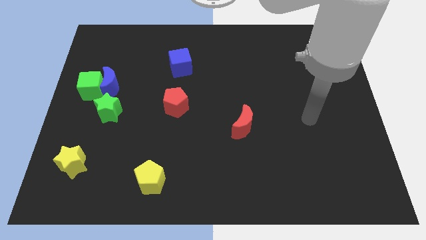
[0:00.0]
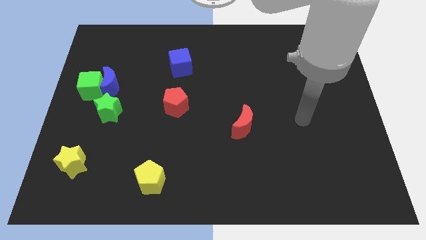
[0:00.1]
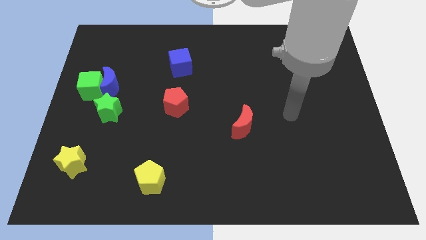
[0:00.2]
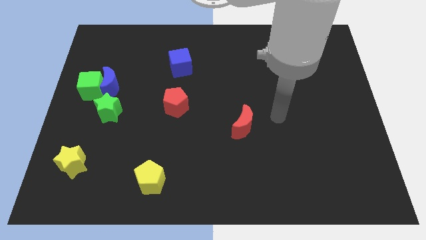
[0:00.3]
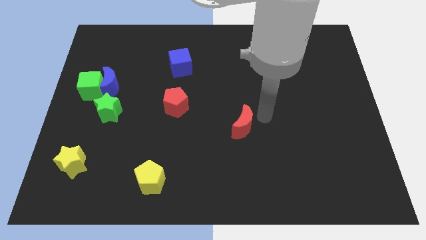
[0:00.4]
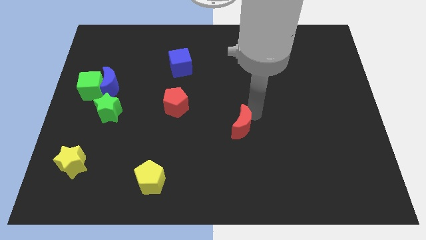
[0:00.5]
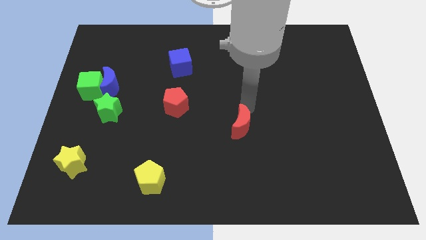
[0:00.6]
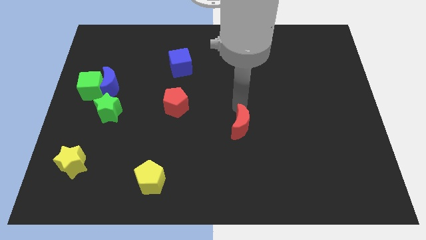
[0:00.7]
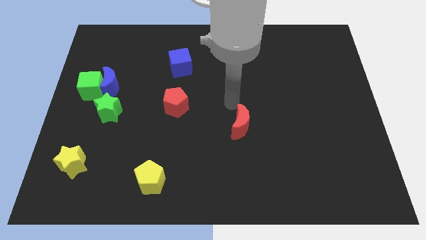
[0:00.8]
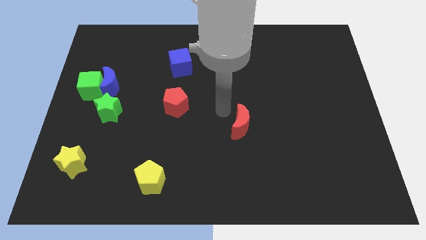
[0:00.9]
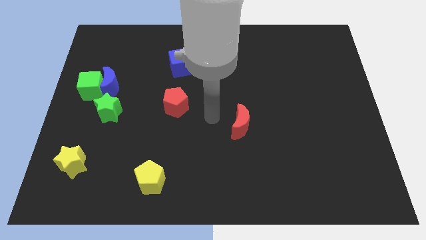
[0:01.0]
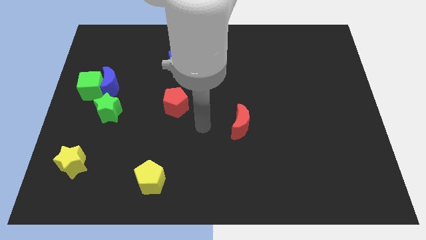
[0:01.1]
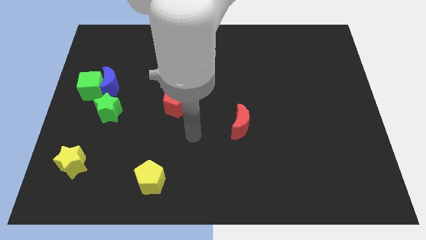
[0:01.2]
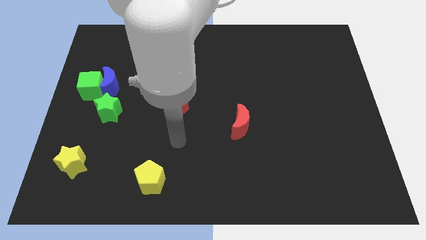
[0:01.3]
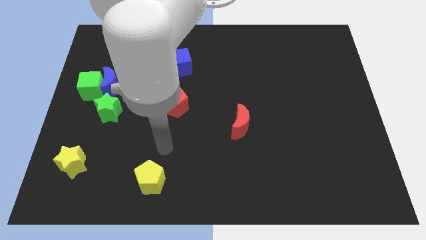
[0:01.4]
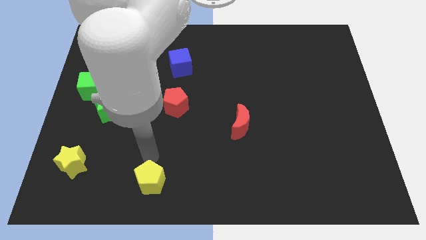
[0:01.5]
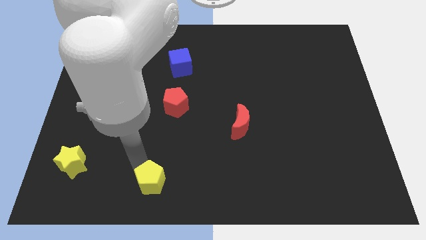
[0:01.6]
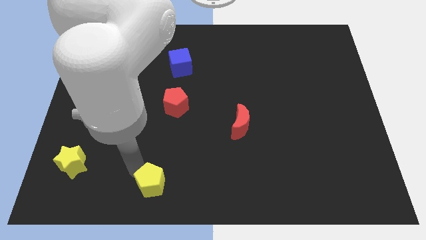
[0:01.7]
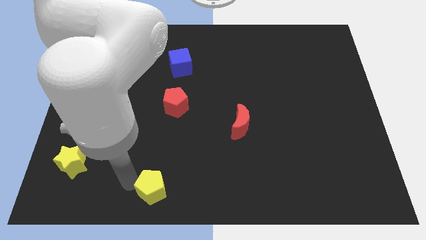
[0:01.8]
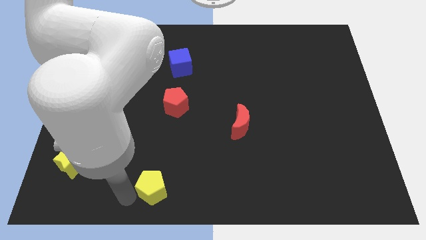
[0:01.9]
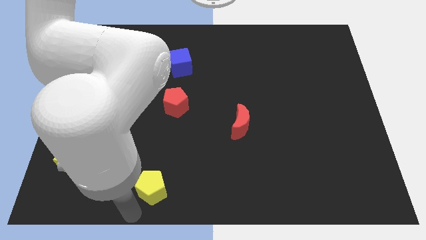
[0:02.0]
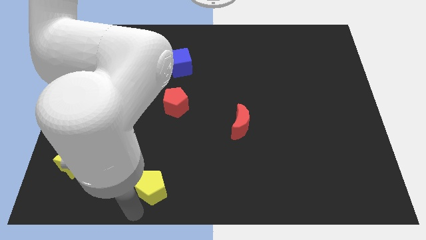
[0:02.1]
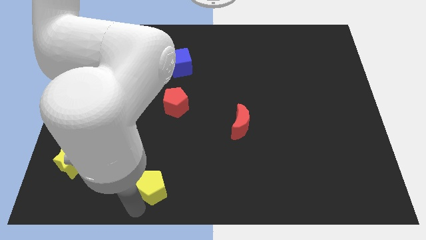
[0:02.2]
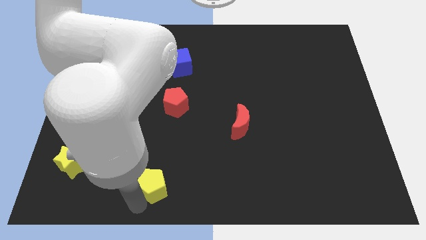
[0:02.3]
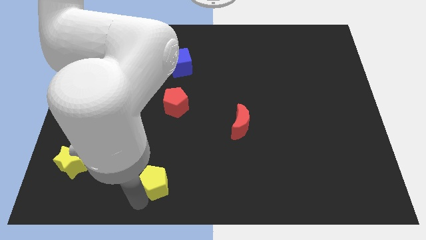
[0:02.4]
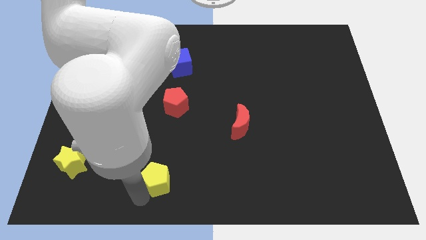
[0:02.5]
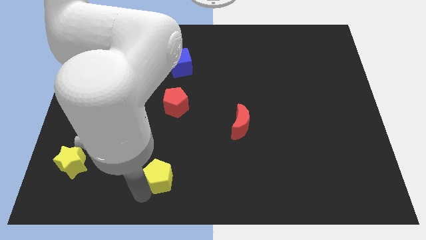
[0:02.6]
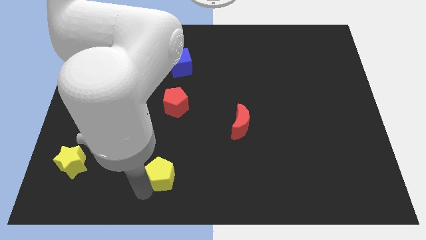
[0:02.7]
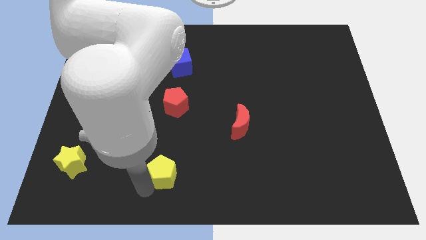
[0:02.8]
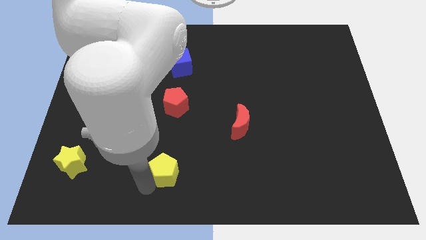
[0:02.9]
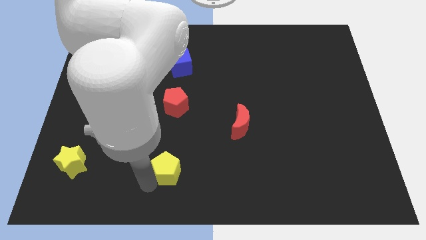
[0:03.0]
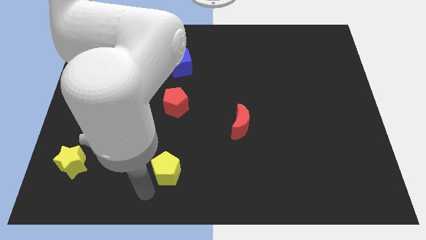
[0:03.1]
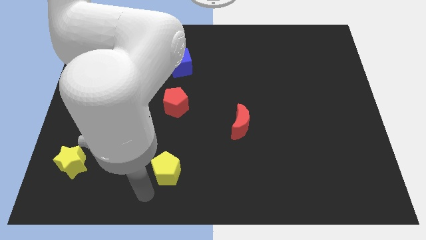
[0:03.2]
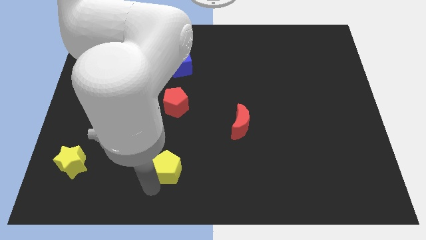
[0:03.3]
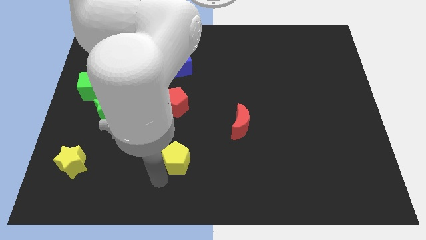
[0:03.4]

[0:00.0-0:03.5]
move the yellow pentagon diagonally up and right a little bit

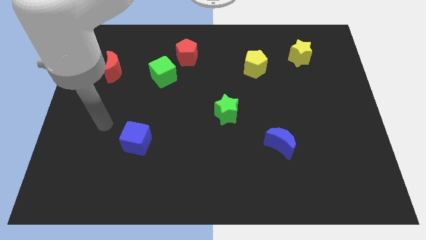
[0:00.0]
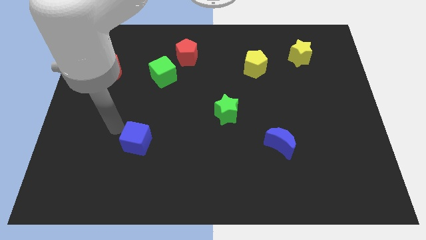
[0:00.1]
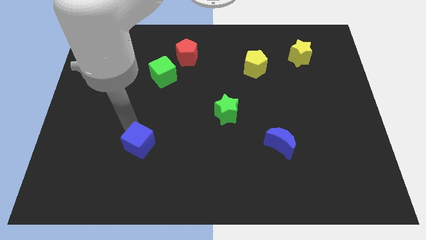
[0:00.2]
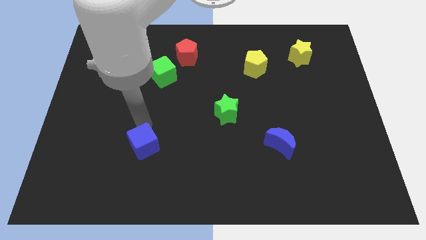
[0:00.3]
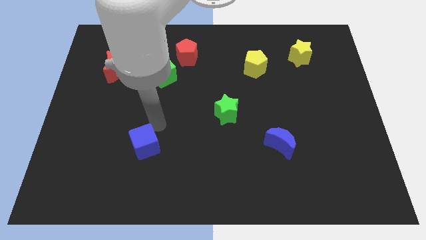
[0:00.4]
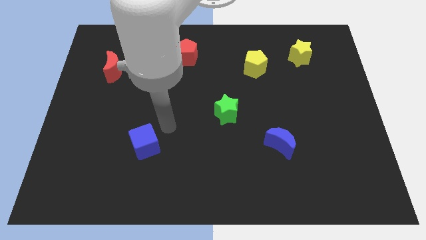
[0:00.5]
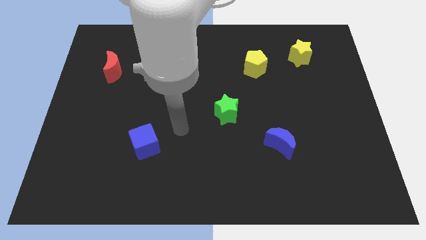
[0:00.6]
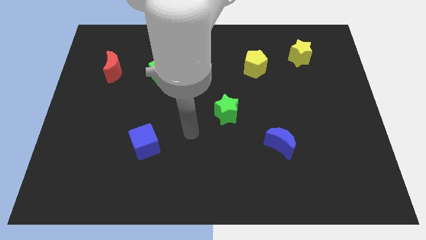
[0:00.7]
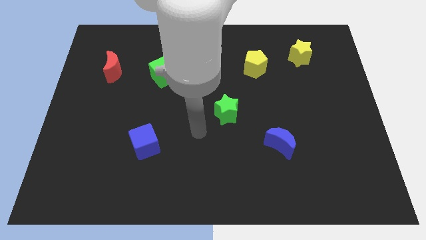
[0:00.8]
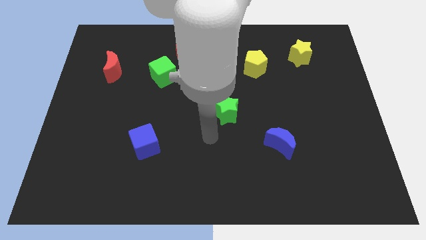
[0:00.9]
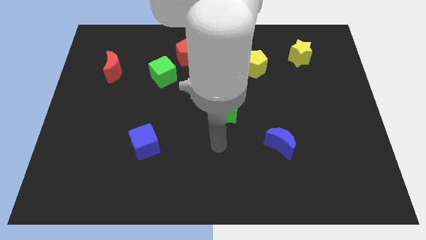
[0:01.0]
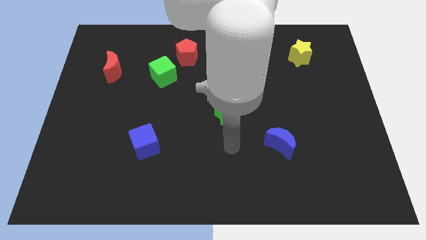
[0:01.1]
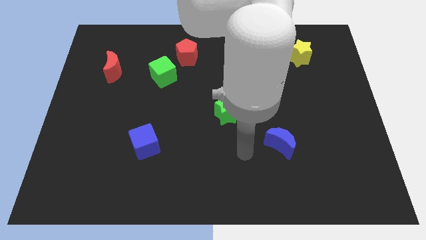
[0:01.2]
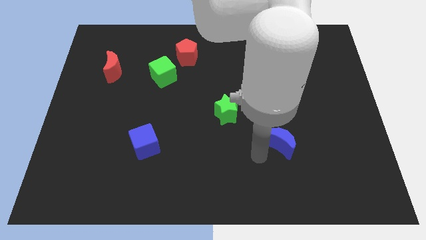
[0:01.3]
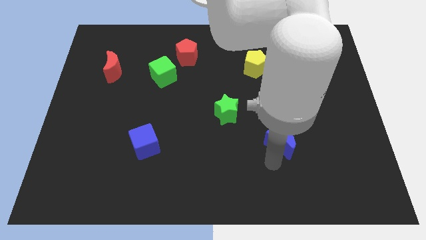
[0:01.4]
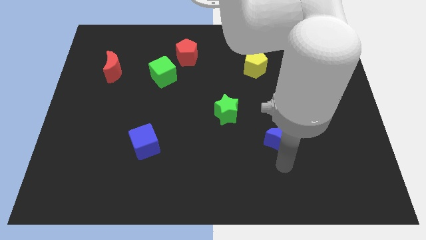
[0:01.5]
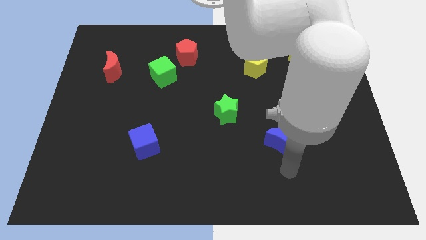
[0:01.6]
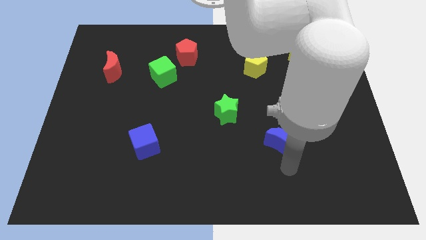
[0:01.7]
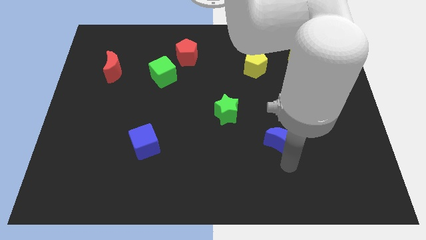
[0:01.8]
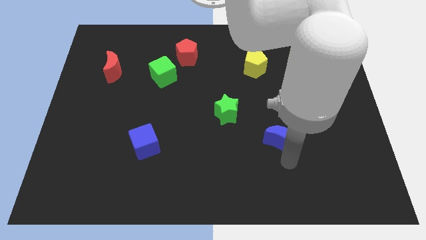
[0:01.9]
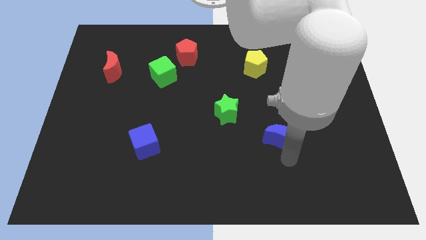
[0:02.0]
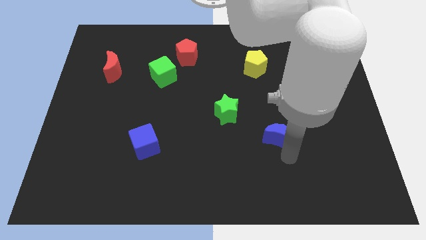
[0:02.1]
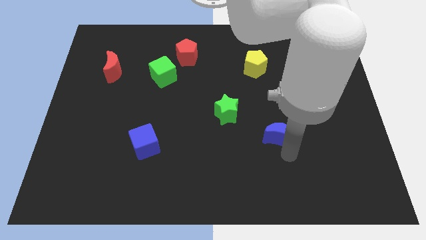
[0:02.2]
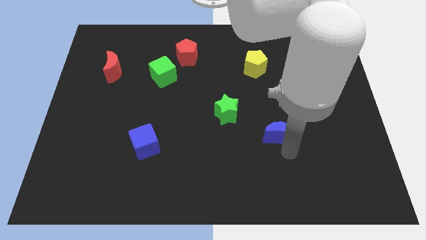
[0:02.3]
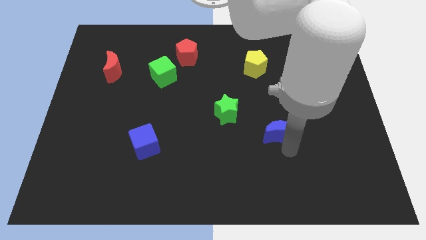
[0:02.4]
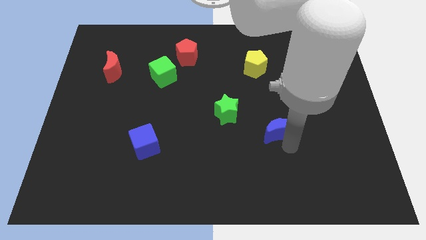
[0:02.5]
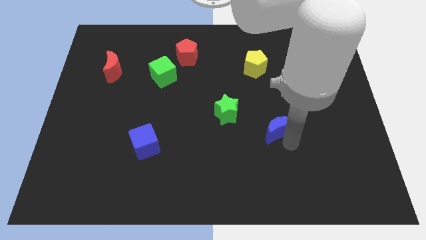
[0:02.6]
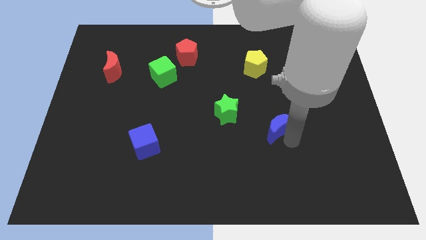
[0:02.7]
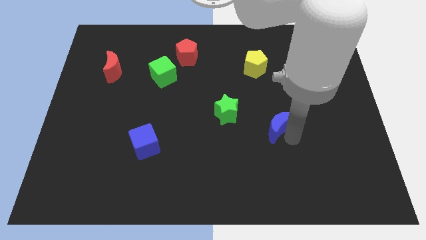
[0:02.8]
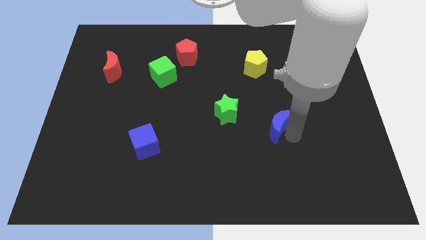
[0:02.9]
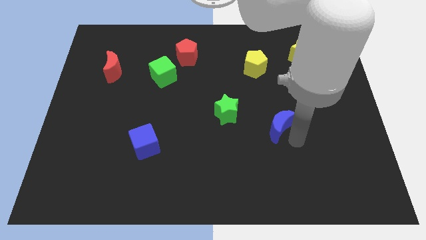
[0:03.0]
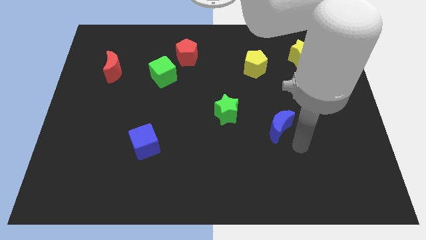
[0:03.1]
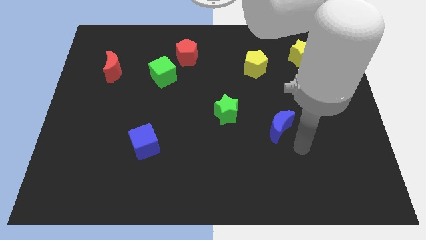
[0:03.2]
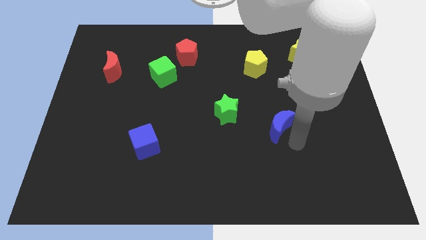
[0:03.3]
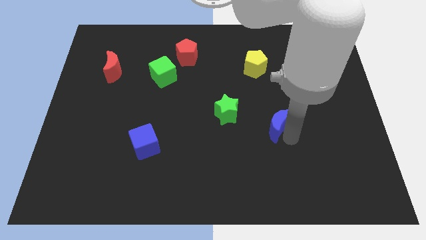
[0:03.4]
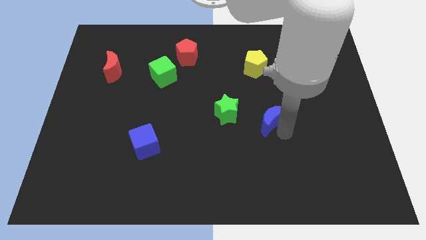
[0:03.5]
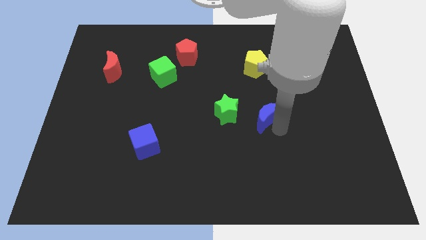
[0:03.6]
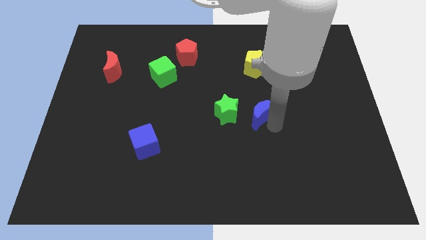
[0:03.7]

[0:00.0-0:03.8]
slide the blue moon slightly upwards and left diagonally

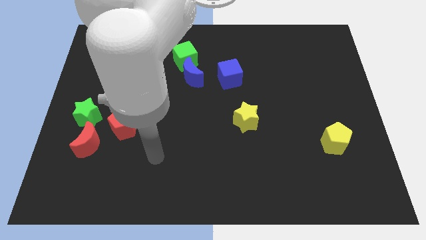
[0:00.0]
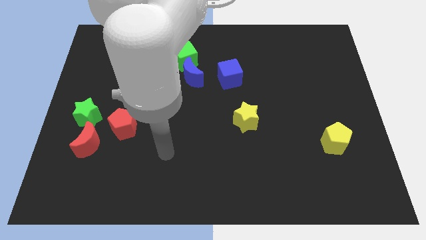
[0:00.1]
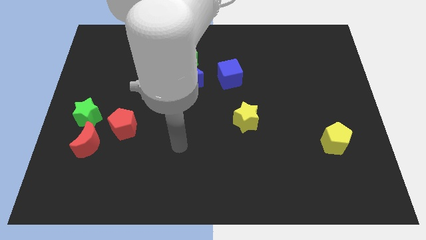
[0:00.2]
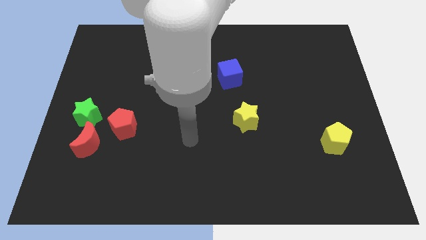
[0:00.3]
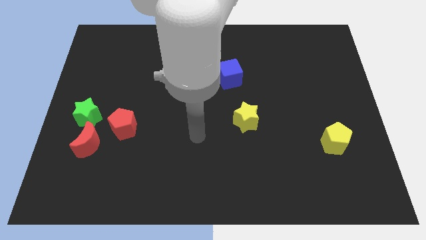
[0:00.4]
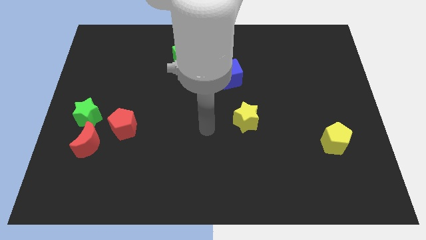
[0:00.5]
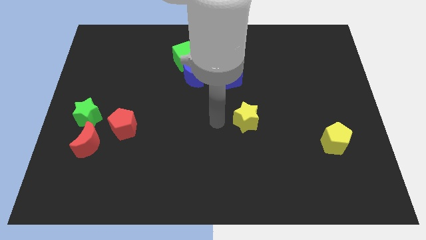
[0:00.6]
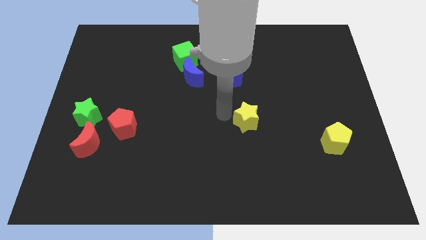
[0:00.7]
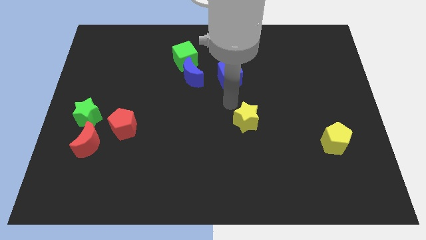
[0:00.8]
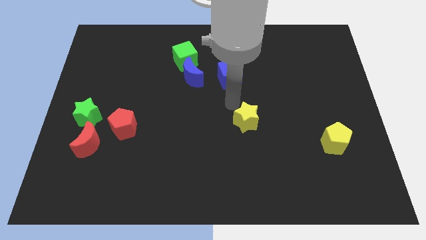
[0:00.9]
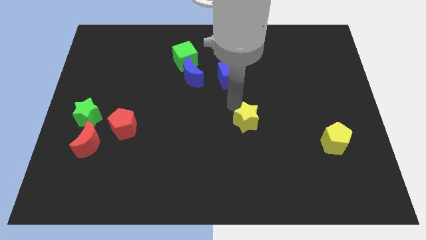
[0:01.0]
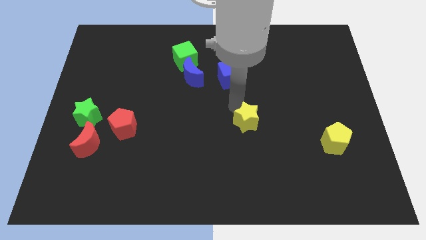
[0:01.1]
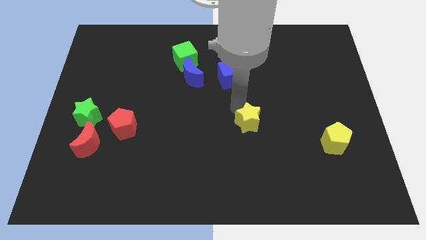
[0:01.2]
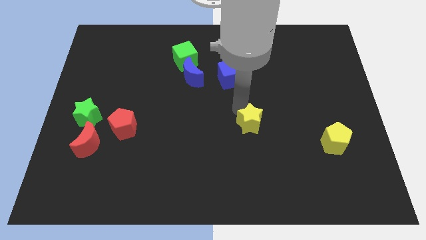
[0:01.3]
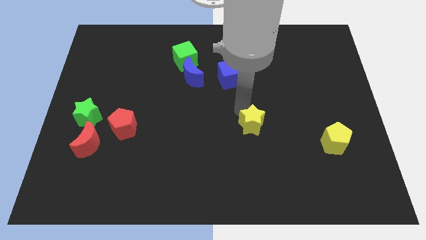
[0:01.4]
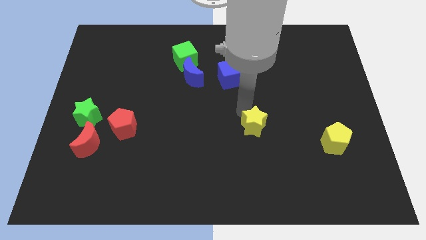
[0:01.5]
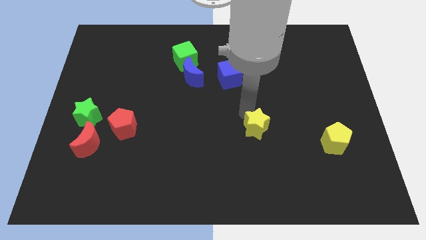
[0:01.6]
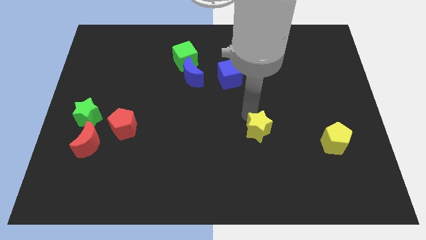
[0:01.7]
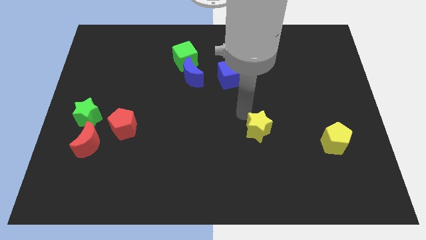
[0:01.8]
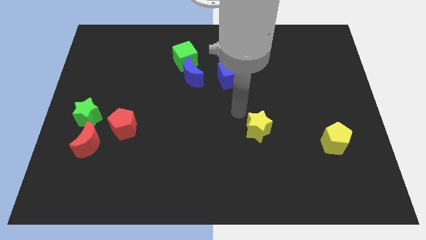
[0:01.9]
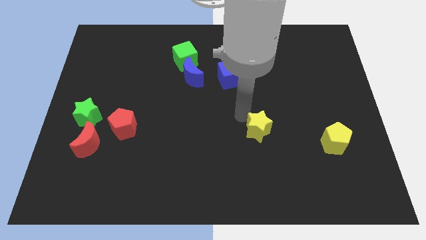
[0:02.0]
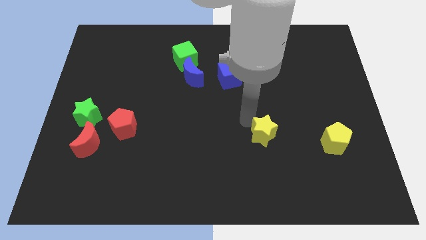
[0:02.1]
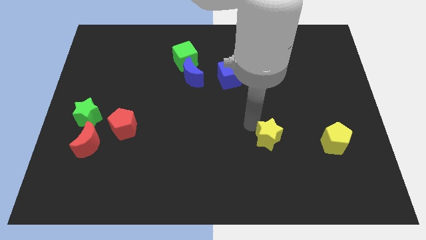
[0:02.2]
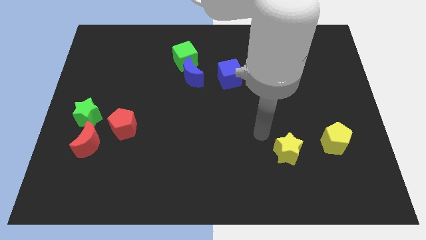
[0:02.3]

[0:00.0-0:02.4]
push the yellow star slightly diagonally downwards and right
